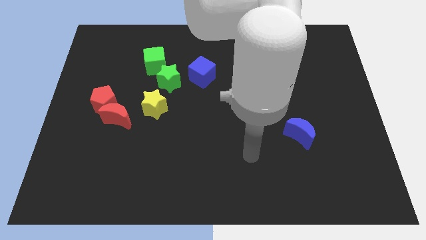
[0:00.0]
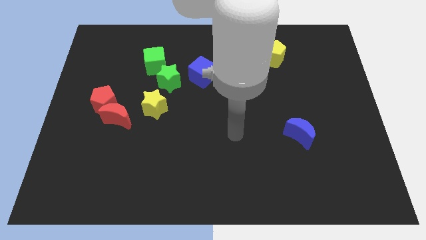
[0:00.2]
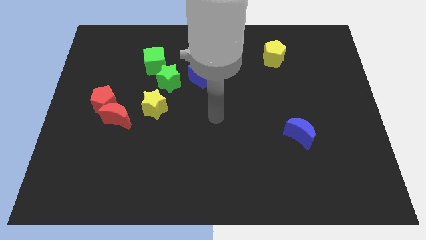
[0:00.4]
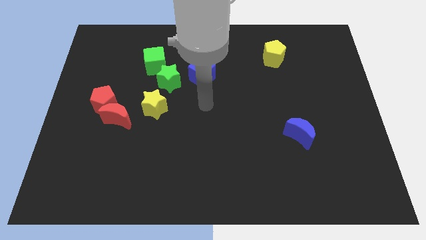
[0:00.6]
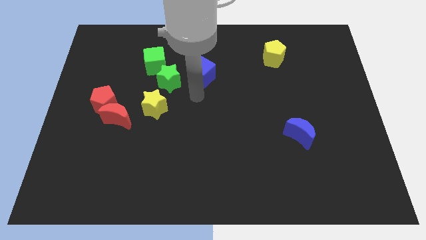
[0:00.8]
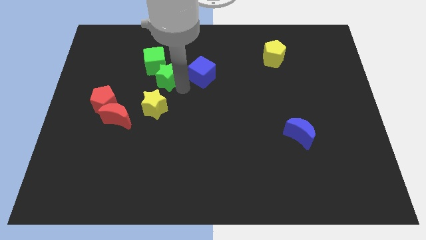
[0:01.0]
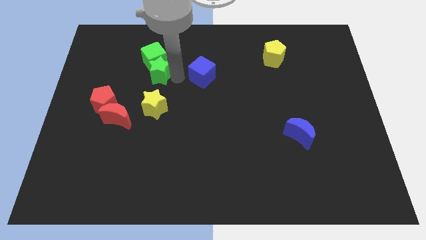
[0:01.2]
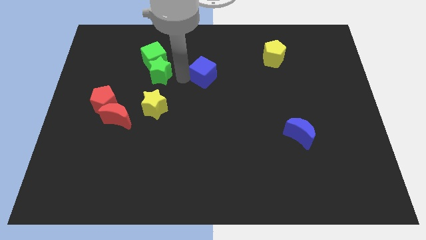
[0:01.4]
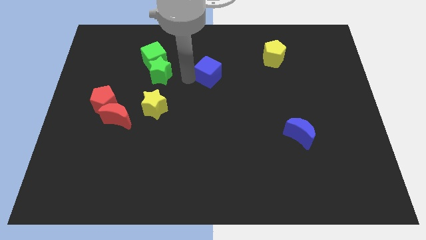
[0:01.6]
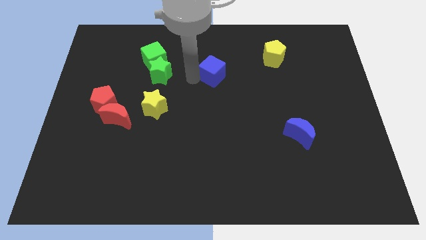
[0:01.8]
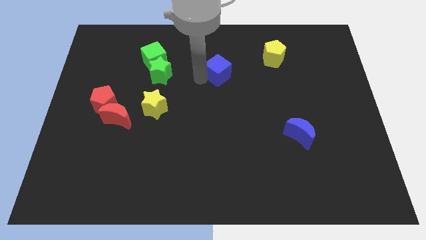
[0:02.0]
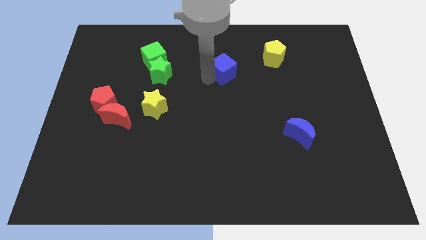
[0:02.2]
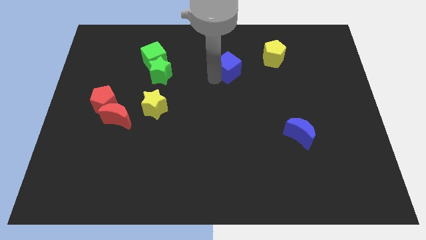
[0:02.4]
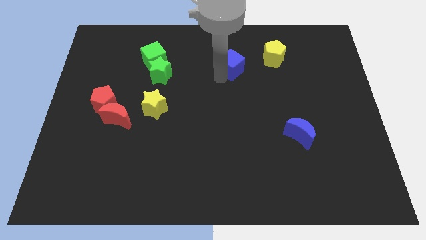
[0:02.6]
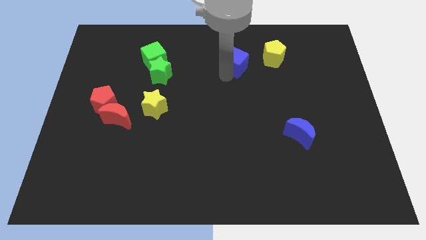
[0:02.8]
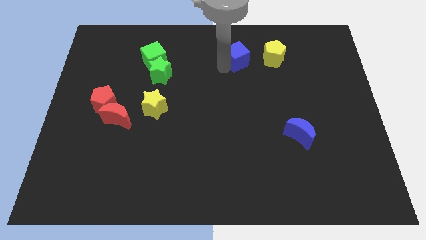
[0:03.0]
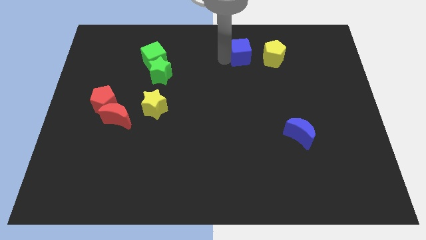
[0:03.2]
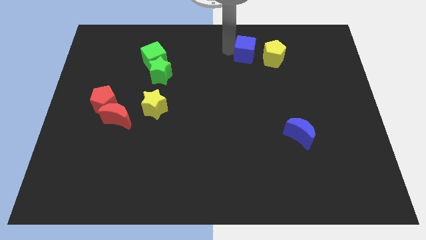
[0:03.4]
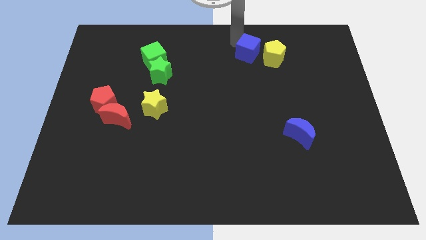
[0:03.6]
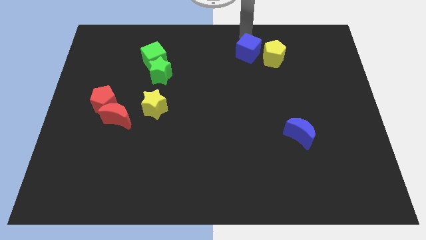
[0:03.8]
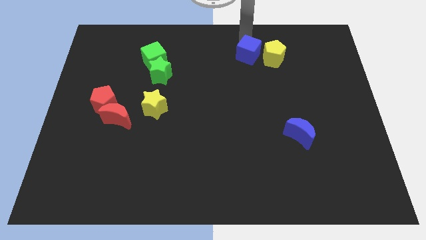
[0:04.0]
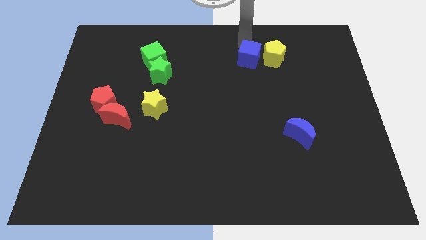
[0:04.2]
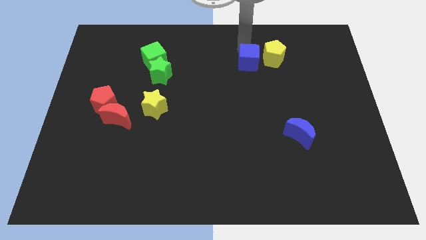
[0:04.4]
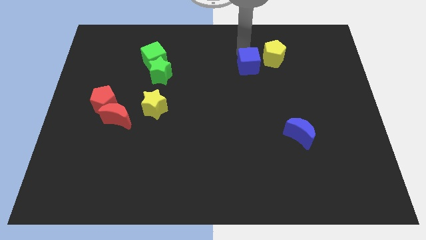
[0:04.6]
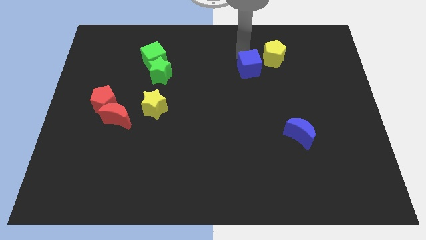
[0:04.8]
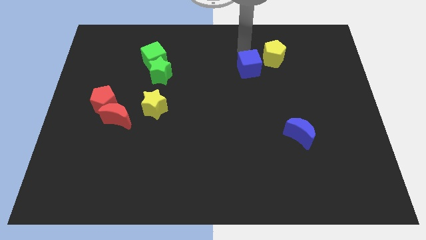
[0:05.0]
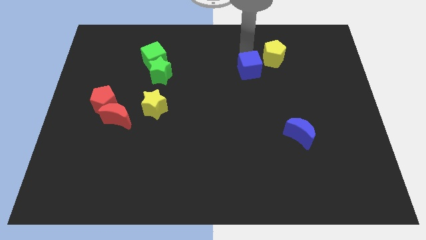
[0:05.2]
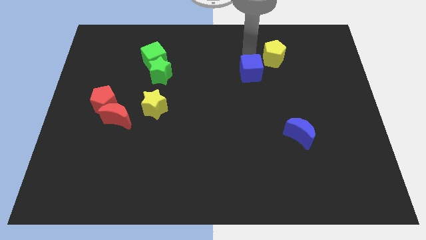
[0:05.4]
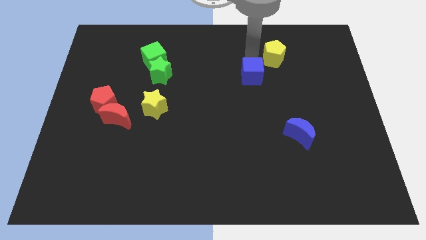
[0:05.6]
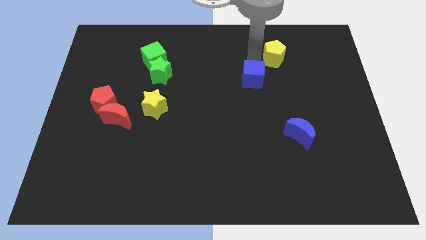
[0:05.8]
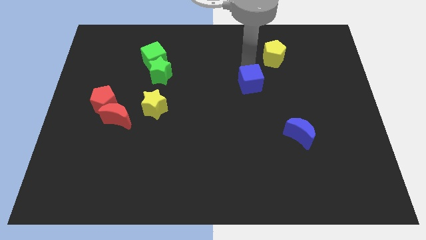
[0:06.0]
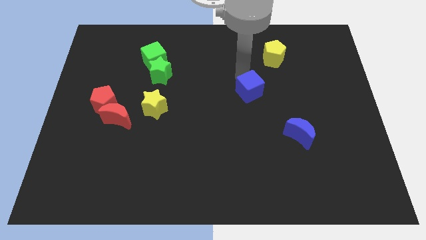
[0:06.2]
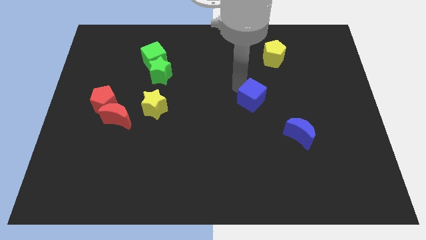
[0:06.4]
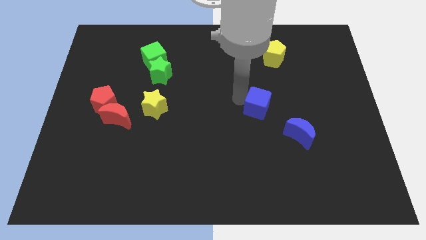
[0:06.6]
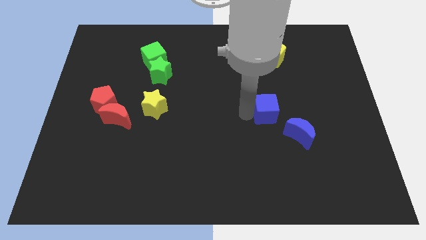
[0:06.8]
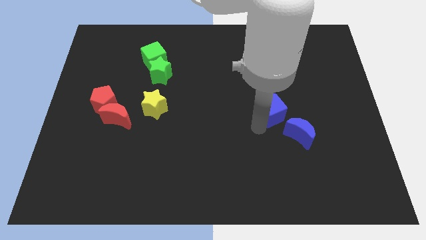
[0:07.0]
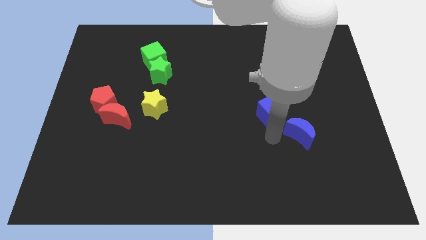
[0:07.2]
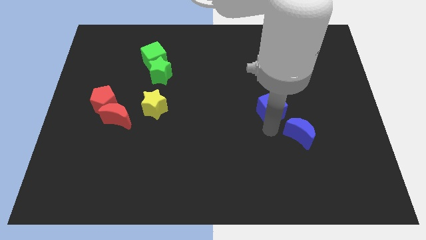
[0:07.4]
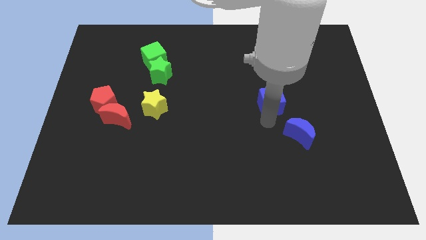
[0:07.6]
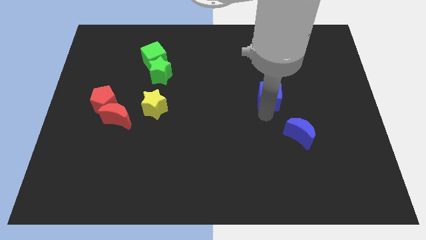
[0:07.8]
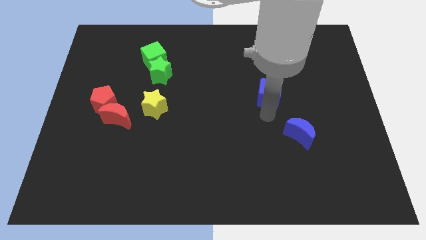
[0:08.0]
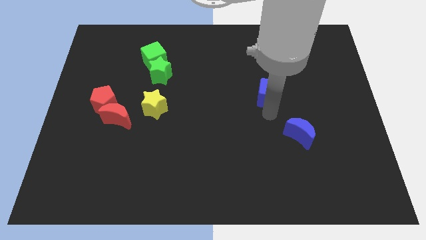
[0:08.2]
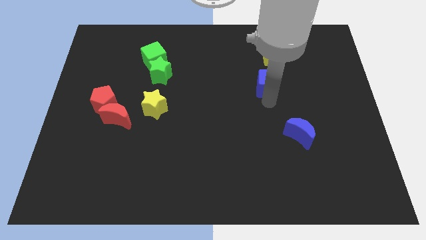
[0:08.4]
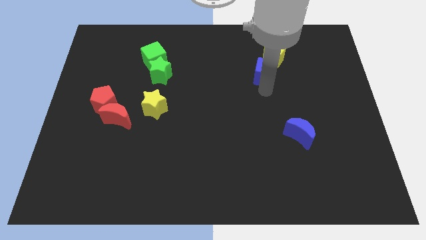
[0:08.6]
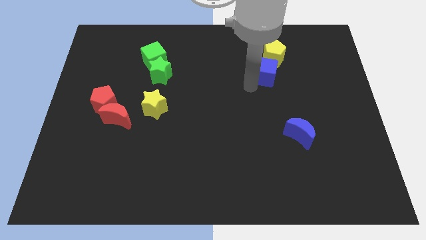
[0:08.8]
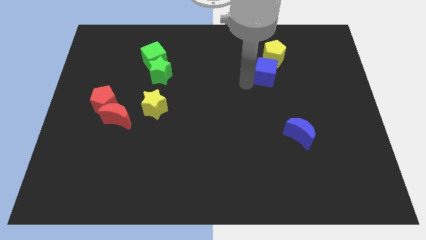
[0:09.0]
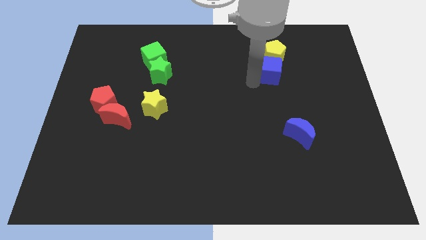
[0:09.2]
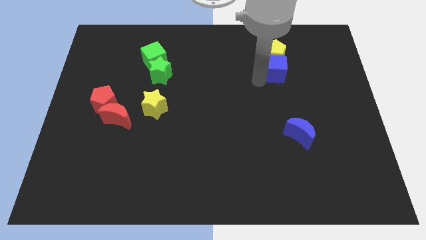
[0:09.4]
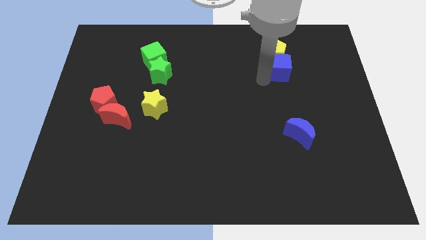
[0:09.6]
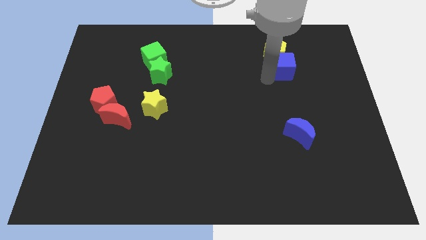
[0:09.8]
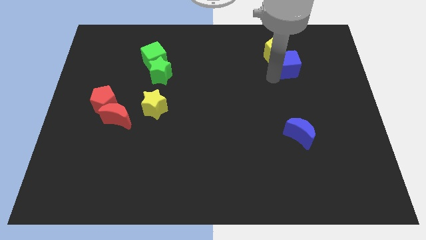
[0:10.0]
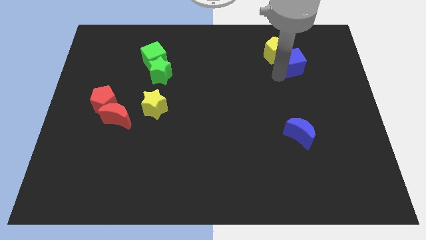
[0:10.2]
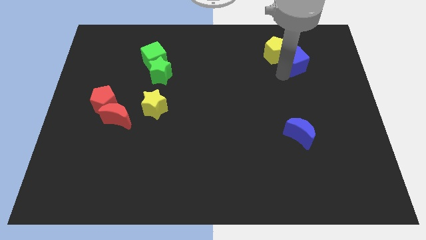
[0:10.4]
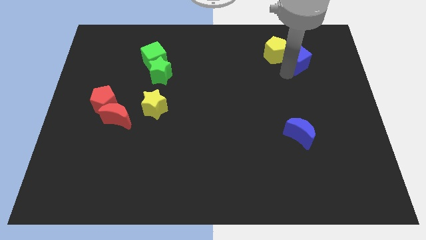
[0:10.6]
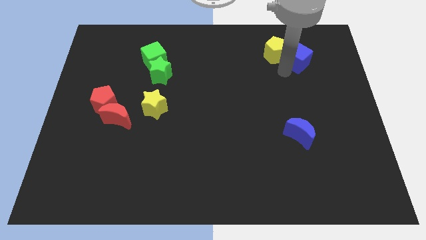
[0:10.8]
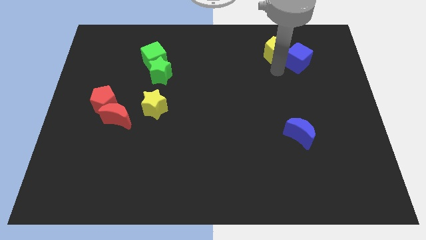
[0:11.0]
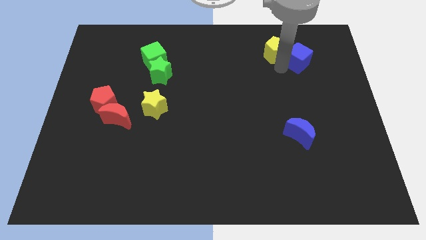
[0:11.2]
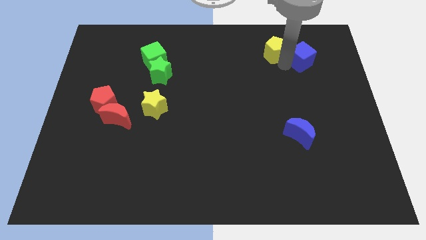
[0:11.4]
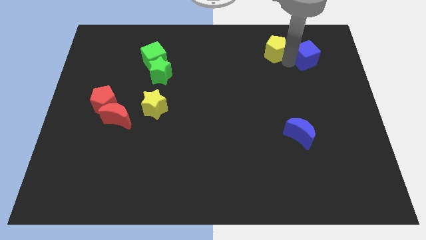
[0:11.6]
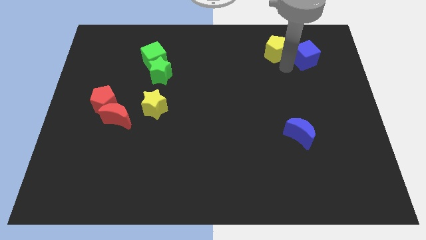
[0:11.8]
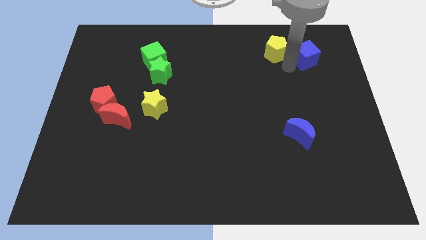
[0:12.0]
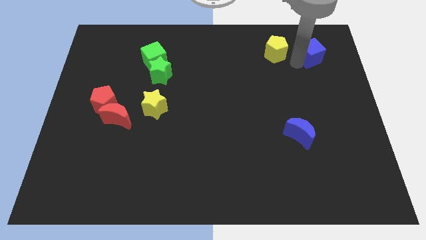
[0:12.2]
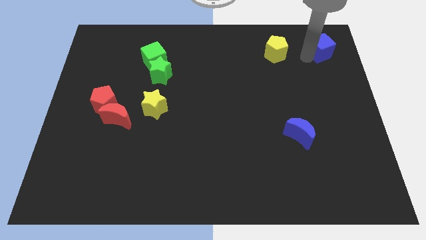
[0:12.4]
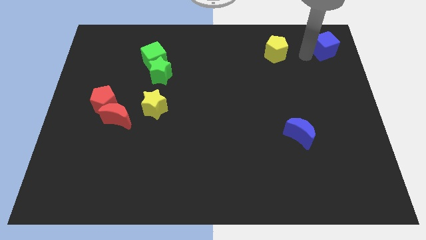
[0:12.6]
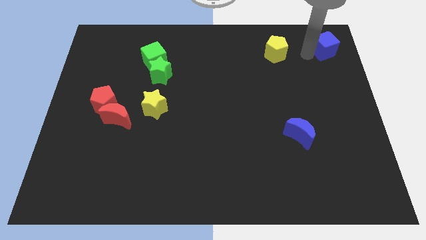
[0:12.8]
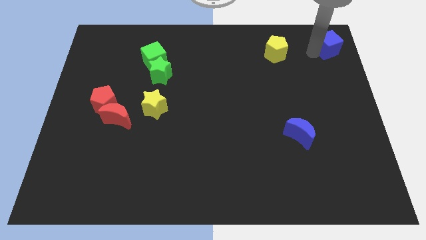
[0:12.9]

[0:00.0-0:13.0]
slide the blue cube to the upper right corner
